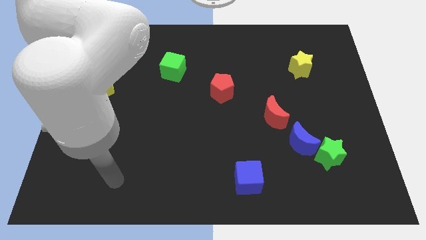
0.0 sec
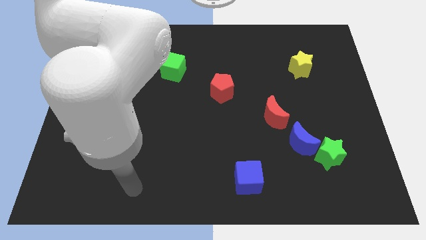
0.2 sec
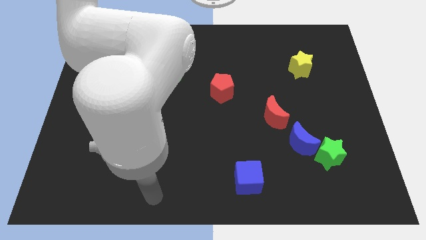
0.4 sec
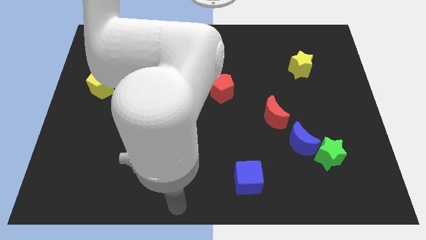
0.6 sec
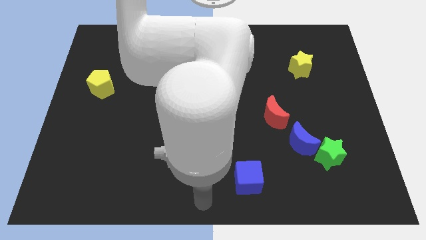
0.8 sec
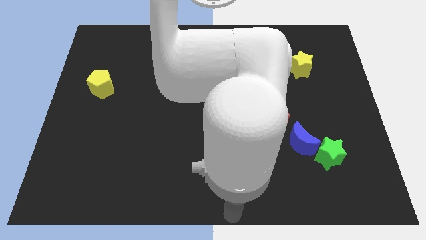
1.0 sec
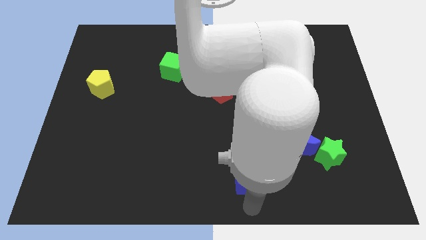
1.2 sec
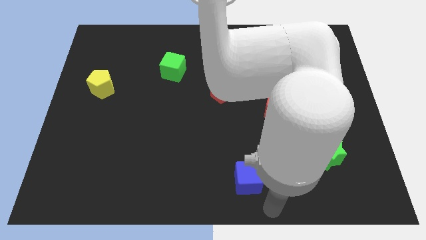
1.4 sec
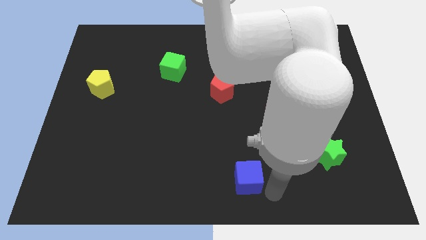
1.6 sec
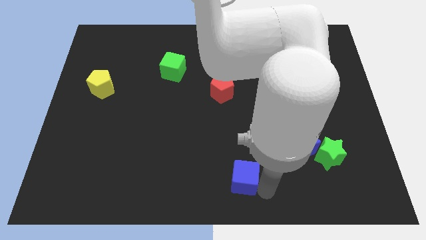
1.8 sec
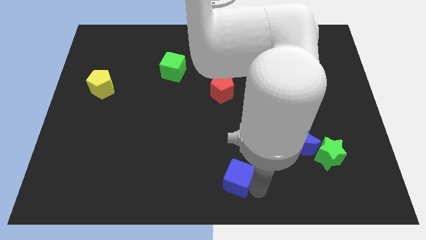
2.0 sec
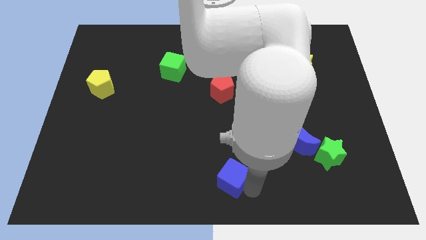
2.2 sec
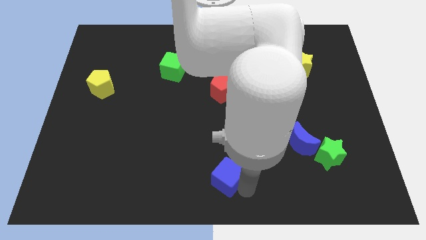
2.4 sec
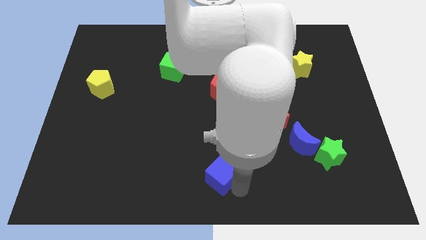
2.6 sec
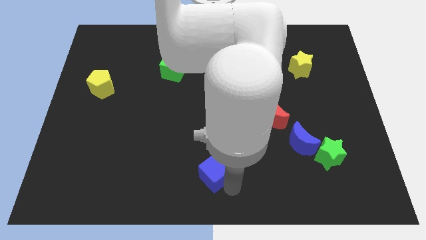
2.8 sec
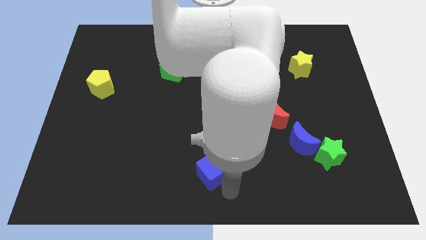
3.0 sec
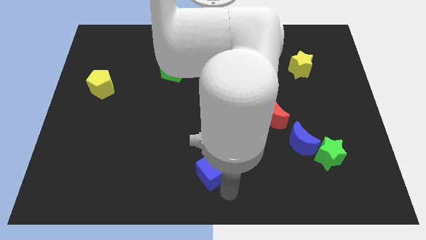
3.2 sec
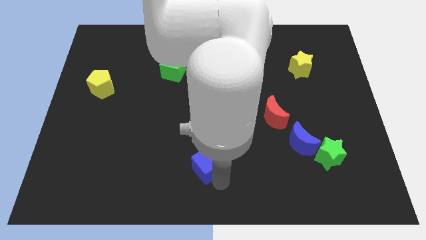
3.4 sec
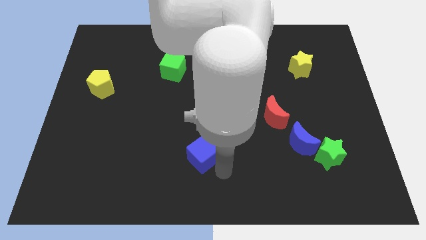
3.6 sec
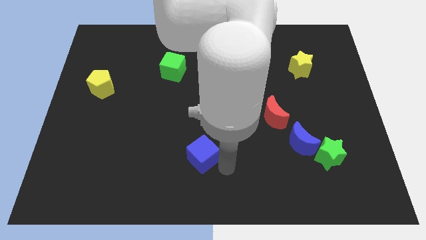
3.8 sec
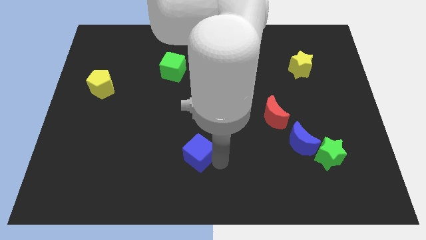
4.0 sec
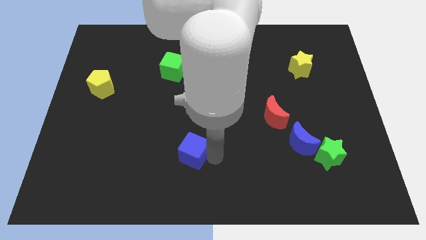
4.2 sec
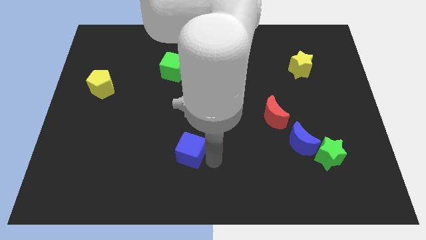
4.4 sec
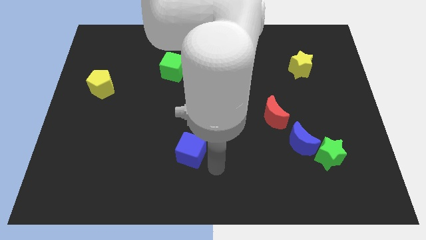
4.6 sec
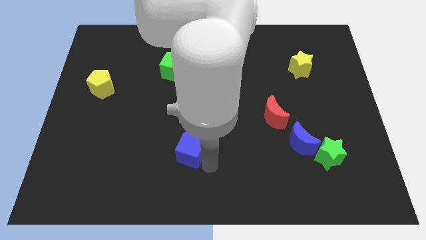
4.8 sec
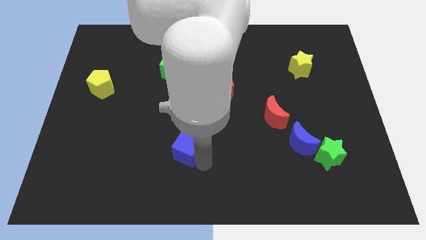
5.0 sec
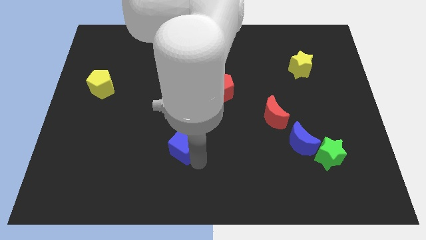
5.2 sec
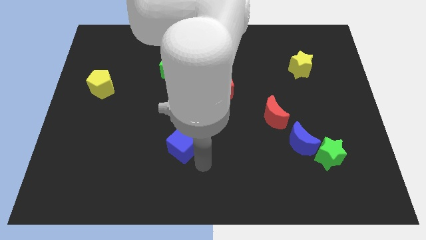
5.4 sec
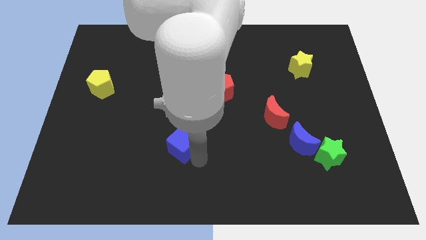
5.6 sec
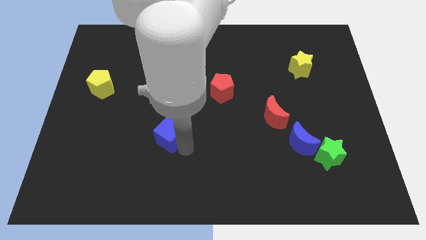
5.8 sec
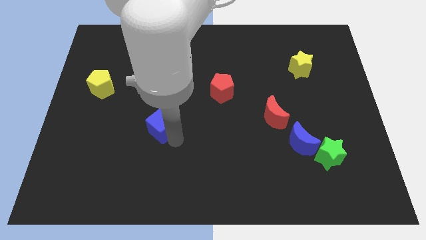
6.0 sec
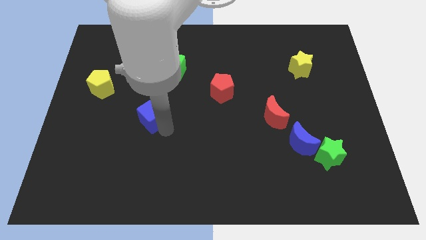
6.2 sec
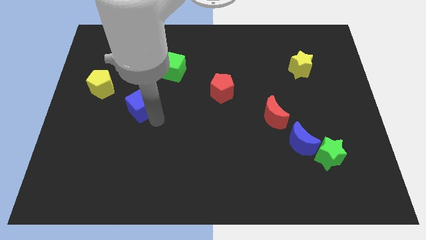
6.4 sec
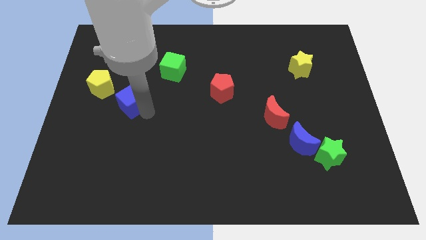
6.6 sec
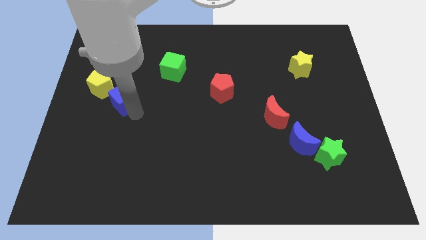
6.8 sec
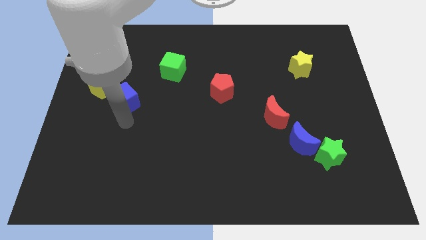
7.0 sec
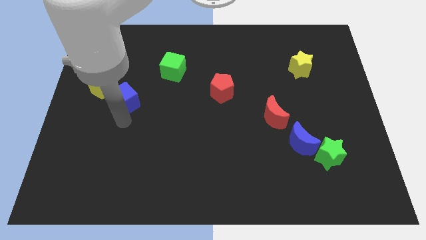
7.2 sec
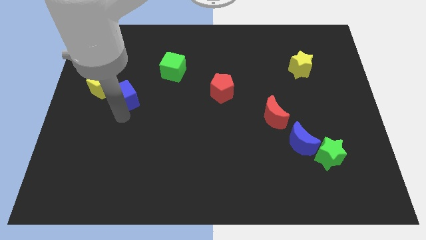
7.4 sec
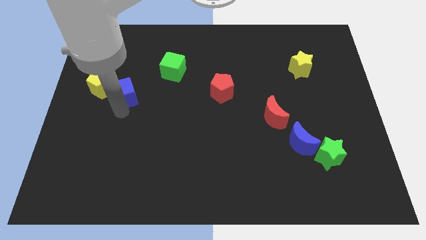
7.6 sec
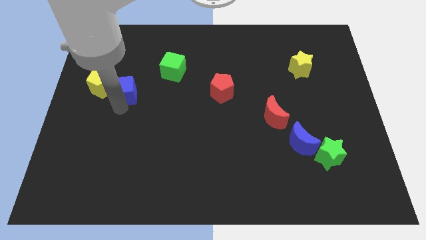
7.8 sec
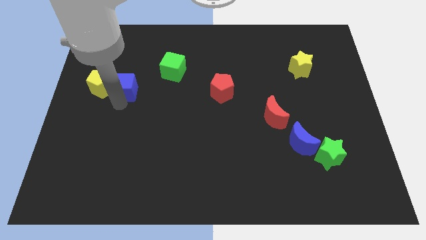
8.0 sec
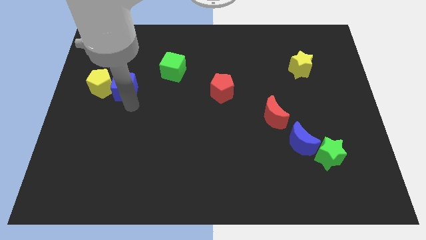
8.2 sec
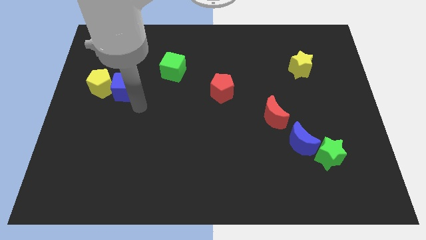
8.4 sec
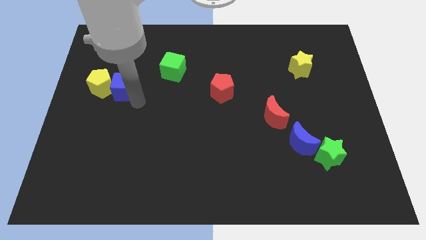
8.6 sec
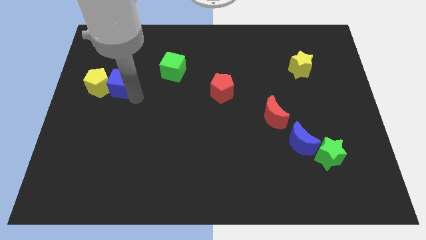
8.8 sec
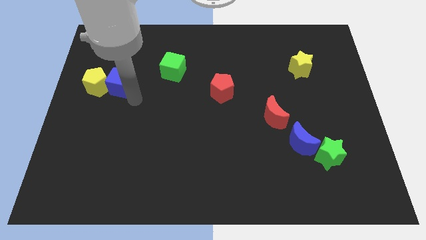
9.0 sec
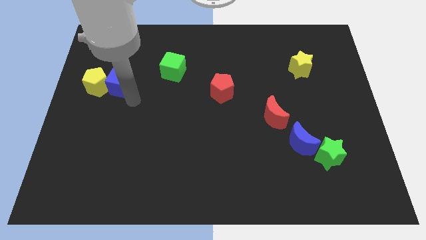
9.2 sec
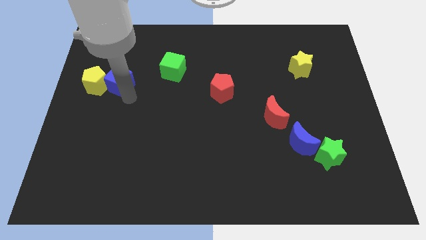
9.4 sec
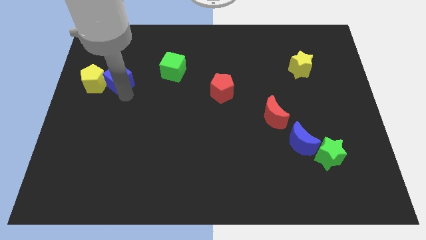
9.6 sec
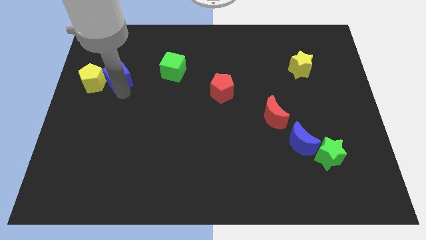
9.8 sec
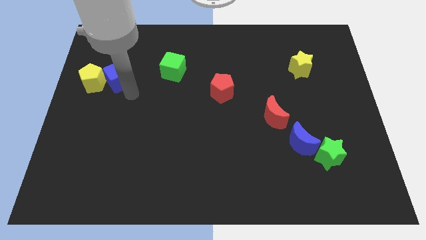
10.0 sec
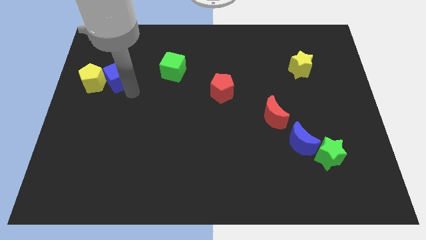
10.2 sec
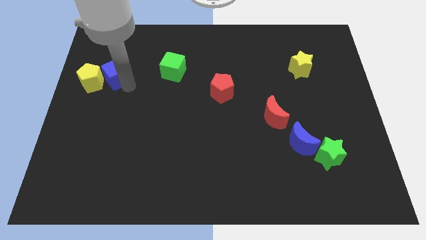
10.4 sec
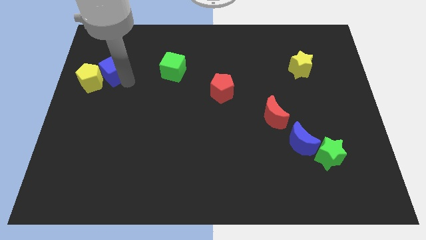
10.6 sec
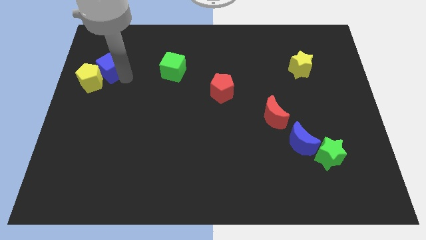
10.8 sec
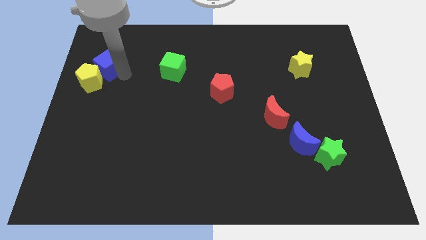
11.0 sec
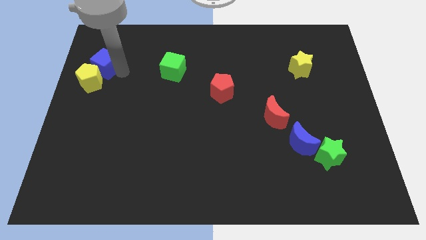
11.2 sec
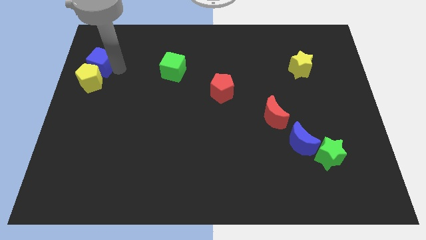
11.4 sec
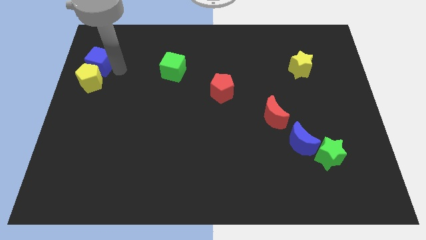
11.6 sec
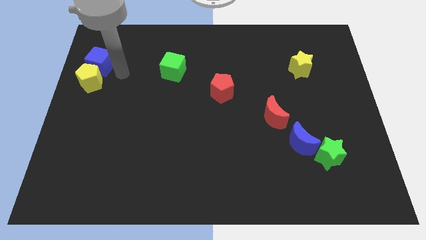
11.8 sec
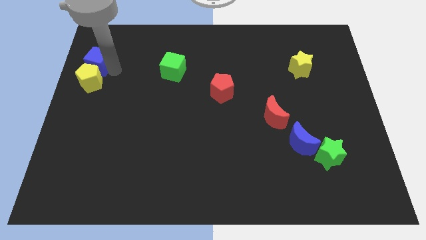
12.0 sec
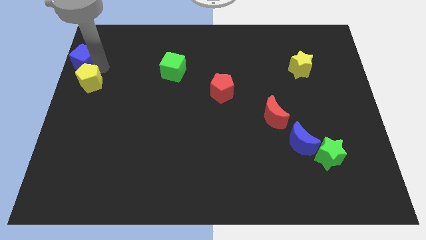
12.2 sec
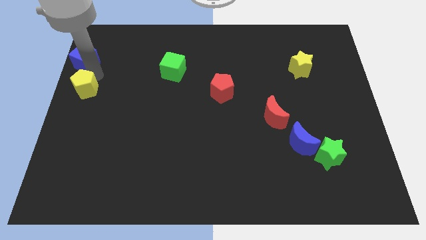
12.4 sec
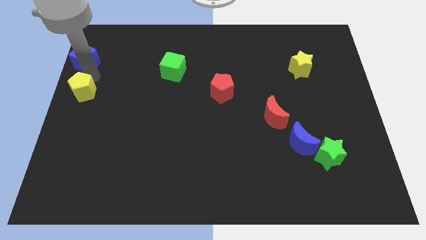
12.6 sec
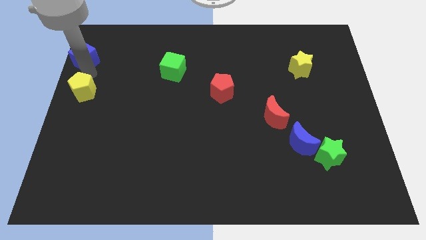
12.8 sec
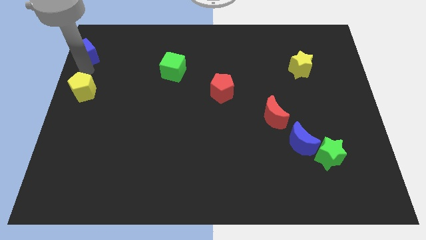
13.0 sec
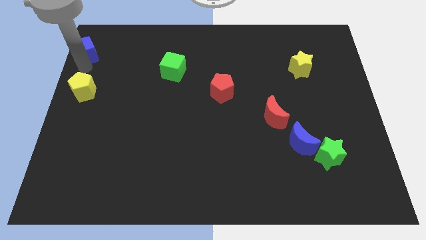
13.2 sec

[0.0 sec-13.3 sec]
push the blue cube to the top left of the board
